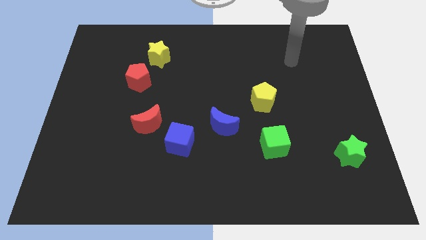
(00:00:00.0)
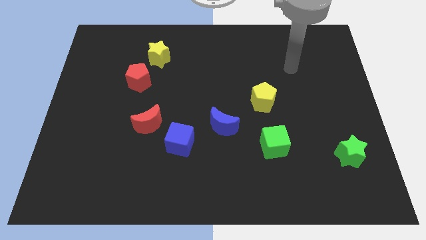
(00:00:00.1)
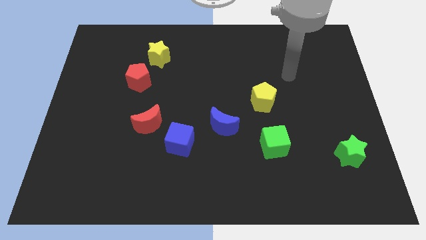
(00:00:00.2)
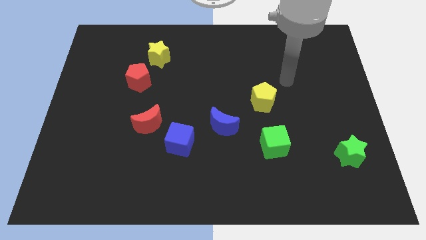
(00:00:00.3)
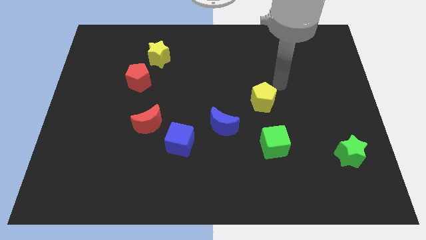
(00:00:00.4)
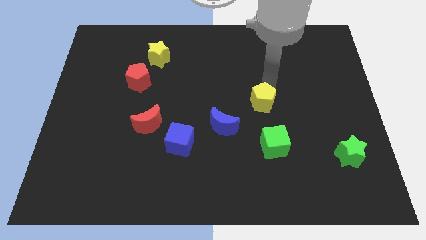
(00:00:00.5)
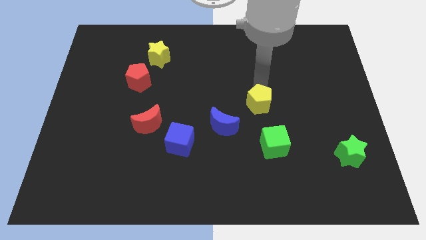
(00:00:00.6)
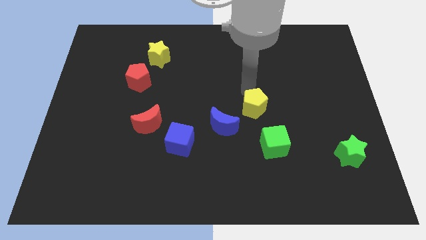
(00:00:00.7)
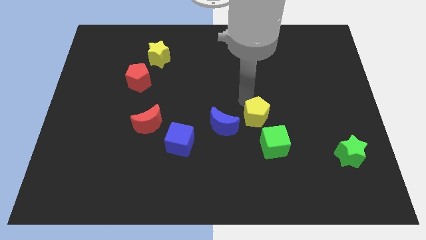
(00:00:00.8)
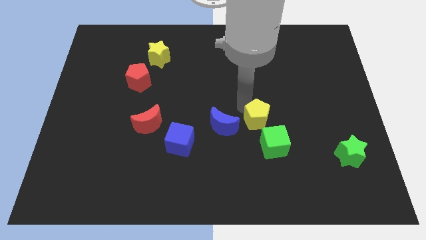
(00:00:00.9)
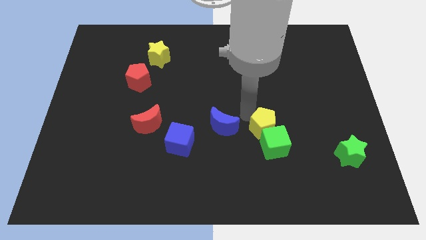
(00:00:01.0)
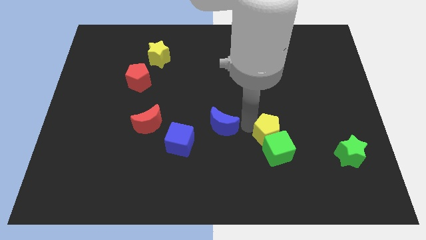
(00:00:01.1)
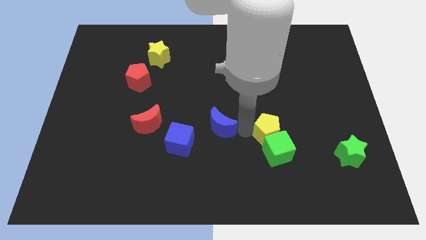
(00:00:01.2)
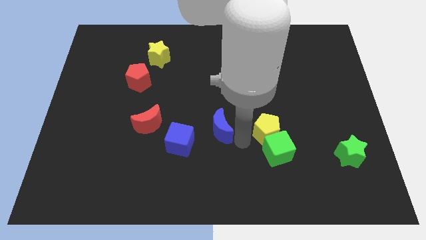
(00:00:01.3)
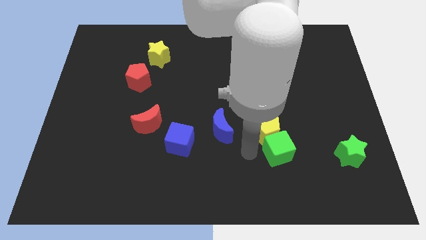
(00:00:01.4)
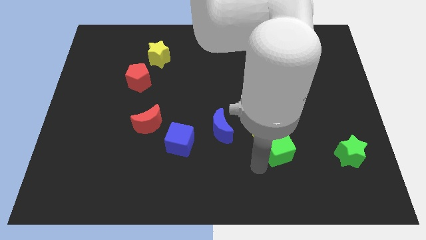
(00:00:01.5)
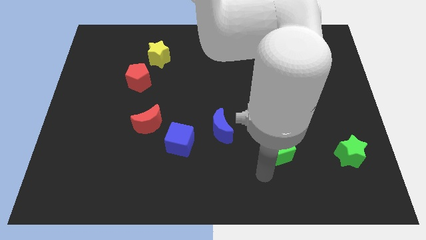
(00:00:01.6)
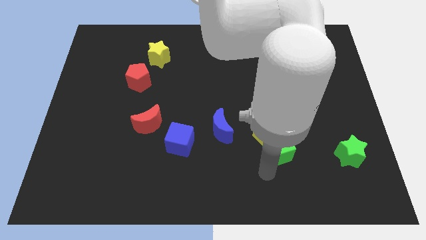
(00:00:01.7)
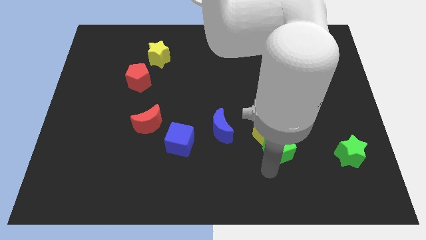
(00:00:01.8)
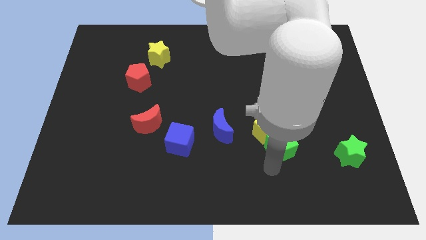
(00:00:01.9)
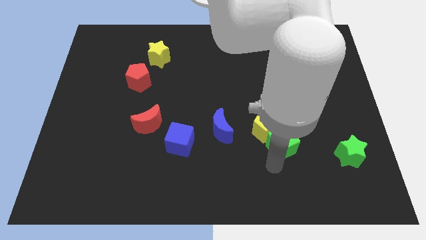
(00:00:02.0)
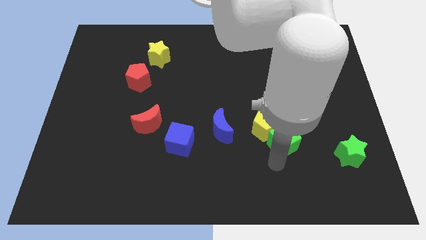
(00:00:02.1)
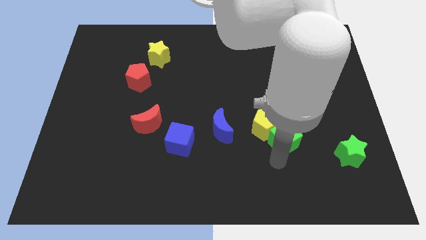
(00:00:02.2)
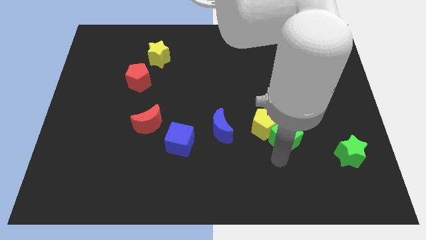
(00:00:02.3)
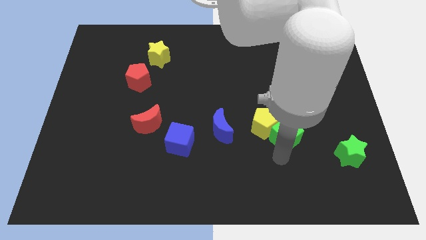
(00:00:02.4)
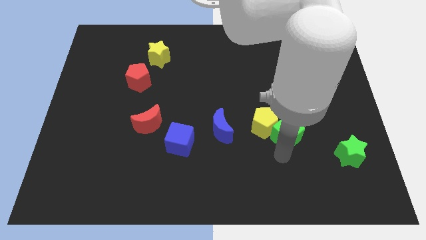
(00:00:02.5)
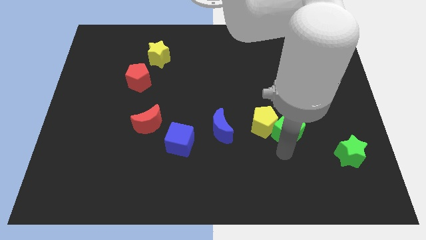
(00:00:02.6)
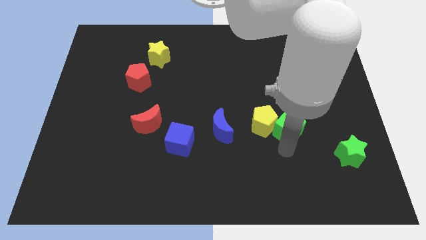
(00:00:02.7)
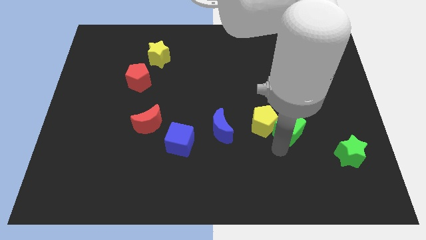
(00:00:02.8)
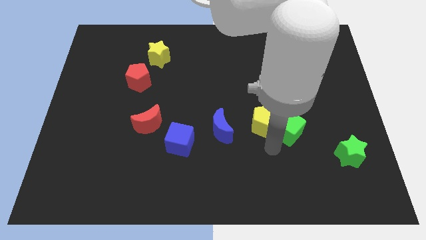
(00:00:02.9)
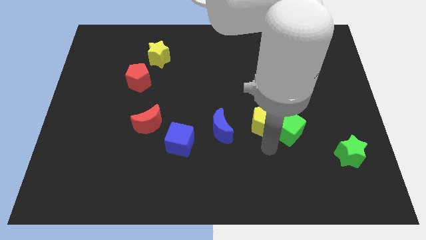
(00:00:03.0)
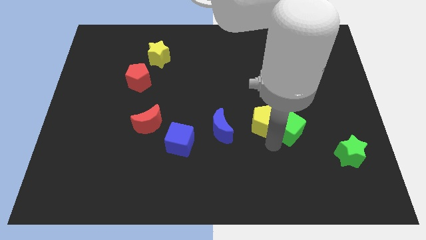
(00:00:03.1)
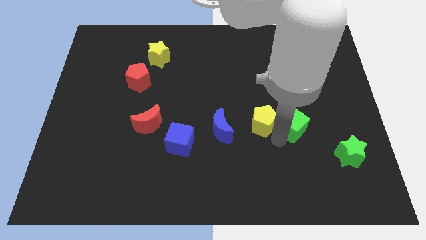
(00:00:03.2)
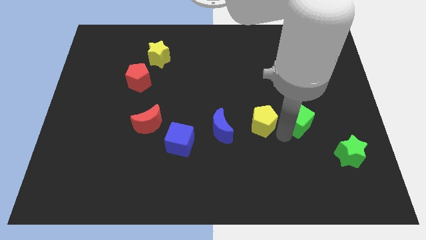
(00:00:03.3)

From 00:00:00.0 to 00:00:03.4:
slide the green cube up and to the right diagonally a little

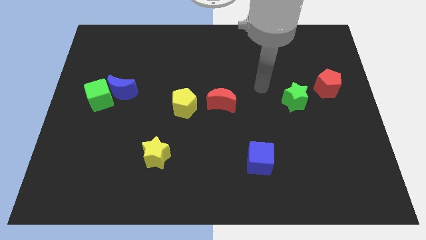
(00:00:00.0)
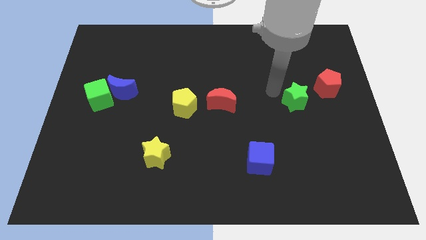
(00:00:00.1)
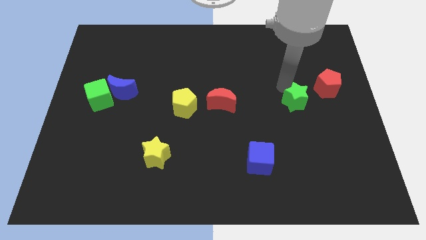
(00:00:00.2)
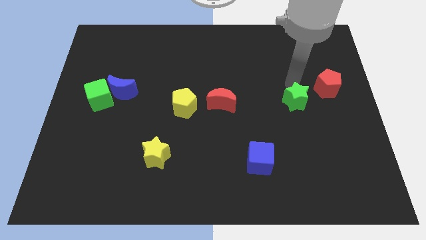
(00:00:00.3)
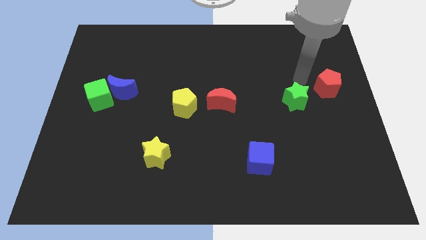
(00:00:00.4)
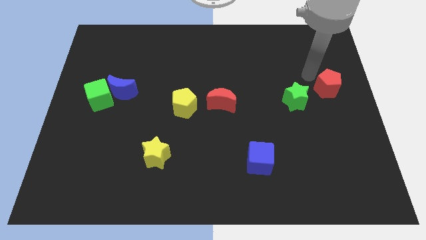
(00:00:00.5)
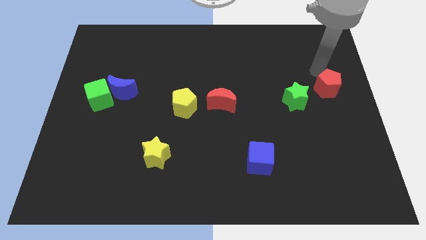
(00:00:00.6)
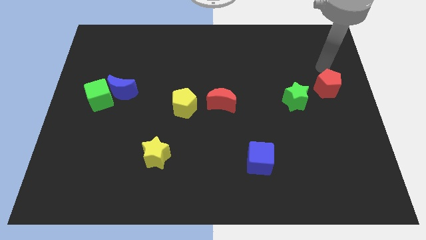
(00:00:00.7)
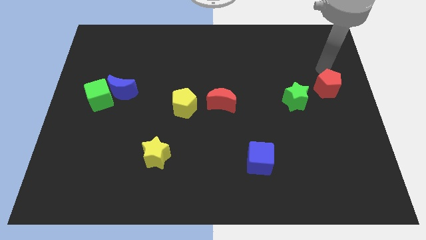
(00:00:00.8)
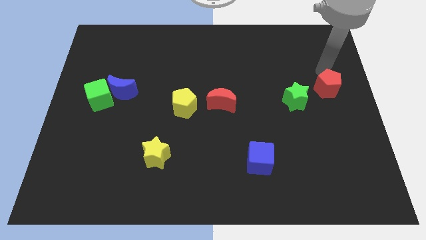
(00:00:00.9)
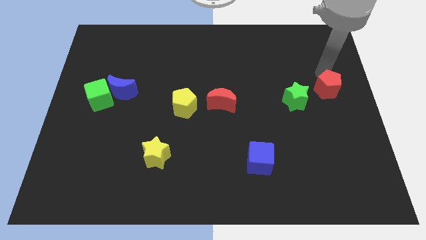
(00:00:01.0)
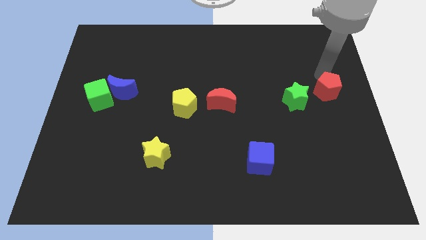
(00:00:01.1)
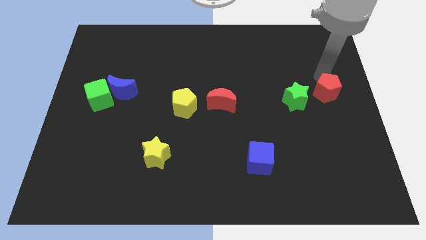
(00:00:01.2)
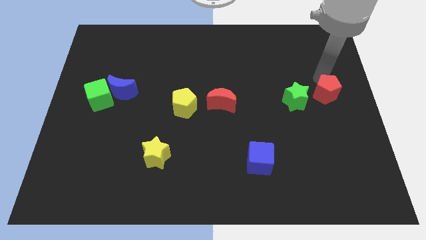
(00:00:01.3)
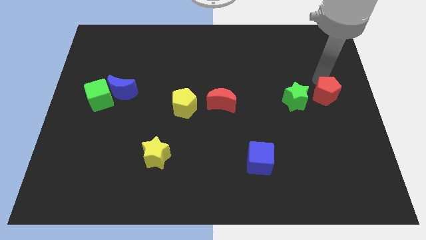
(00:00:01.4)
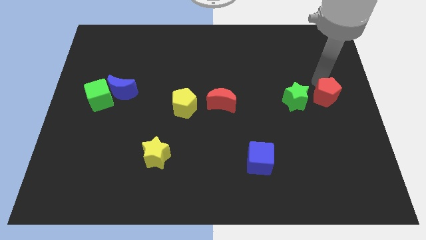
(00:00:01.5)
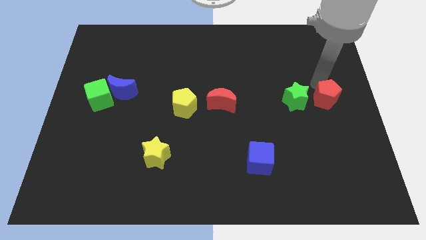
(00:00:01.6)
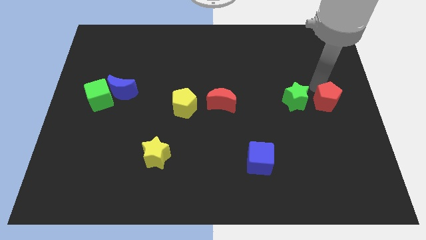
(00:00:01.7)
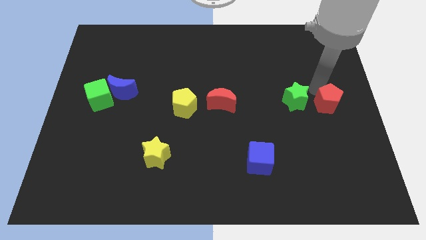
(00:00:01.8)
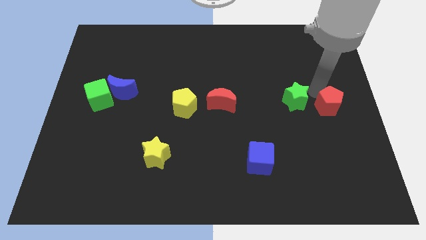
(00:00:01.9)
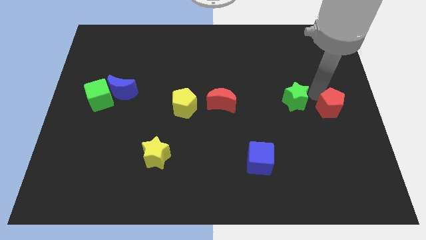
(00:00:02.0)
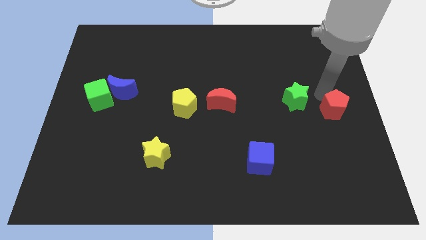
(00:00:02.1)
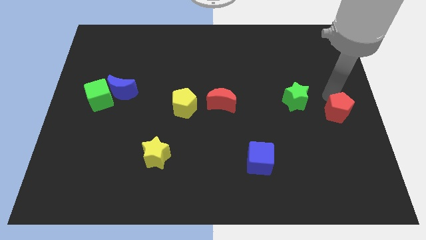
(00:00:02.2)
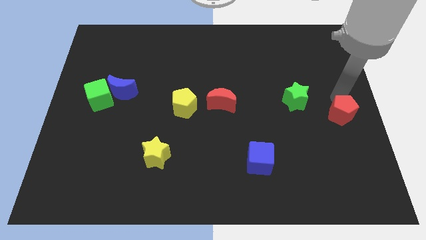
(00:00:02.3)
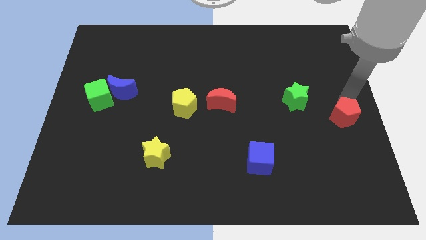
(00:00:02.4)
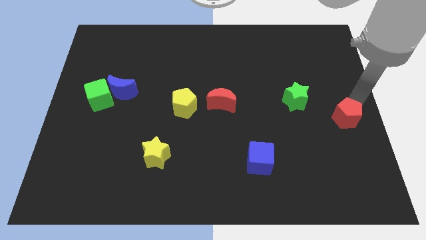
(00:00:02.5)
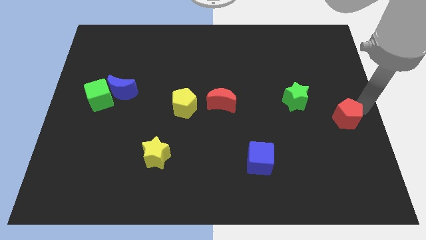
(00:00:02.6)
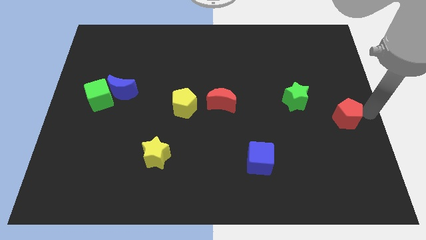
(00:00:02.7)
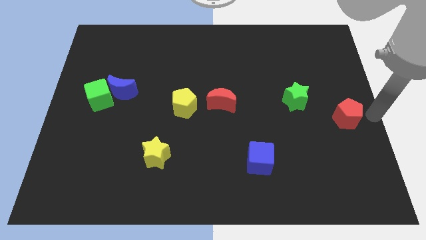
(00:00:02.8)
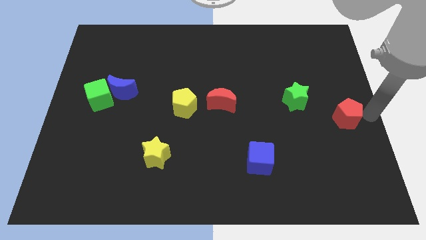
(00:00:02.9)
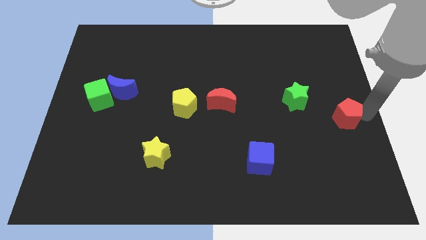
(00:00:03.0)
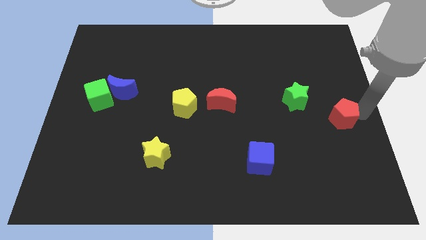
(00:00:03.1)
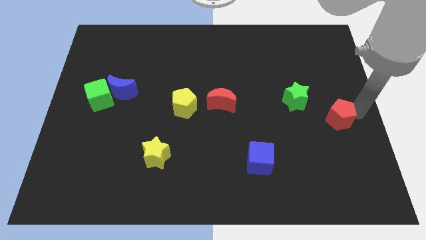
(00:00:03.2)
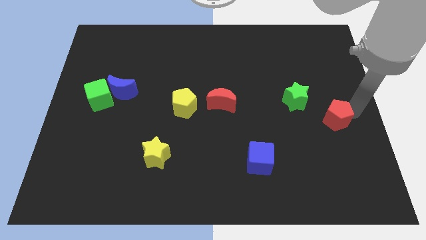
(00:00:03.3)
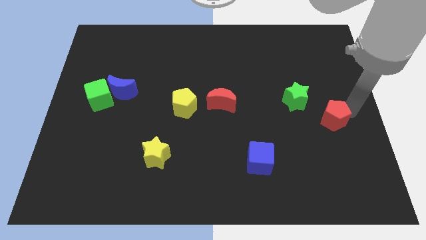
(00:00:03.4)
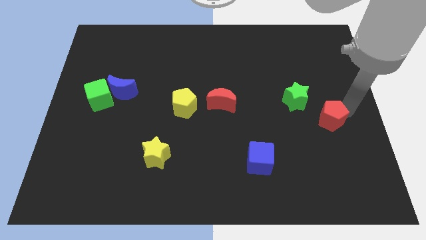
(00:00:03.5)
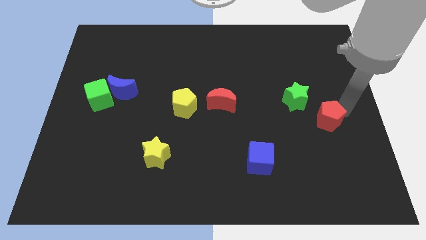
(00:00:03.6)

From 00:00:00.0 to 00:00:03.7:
slightly push the red pentagon down and then left

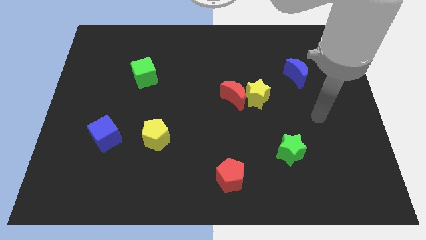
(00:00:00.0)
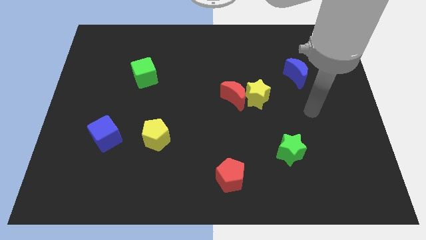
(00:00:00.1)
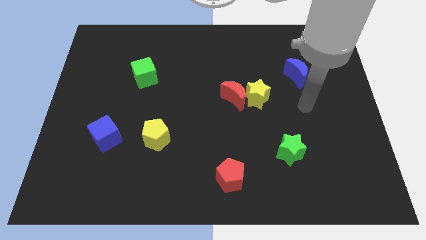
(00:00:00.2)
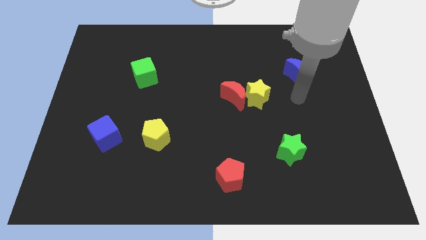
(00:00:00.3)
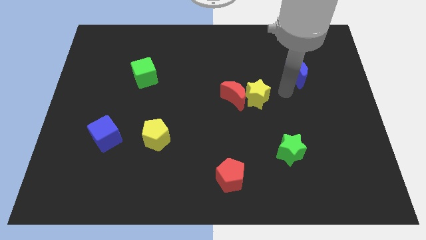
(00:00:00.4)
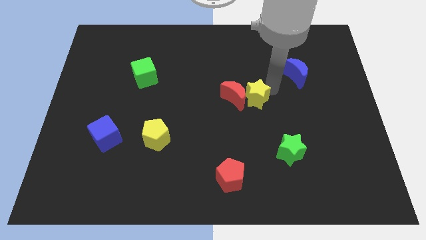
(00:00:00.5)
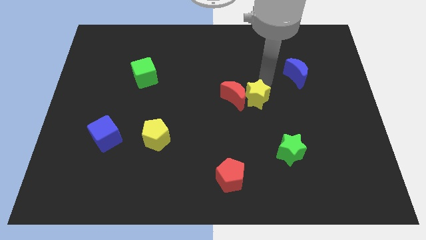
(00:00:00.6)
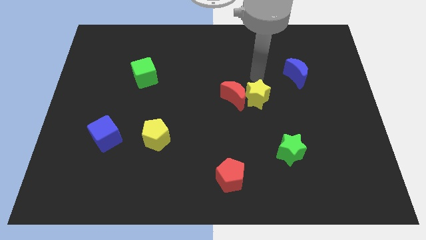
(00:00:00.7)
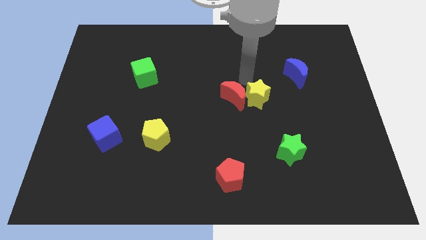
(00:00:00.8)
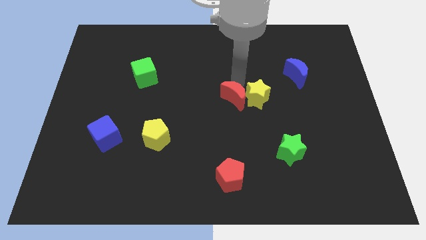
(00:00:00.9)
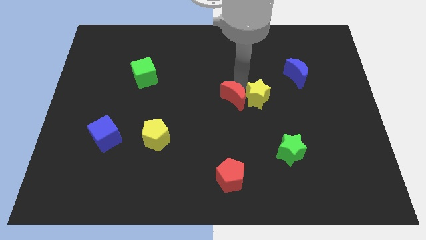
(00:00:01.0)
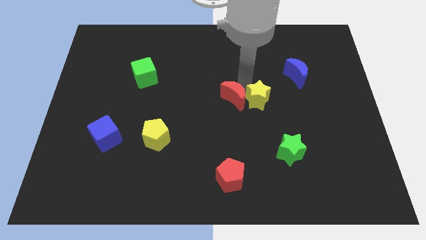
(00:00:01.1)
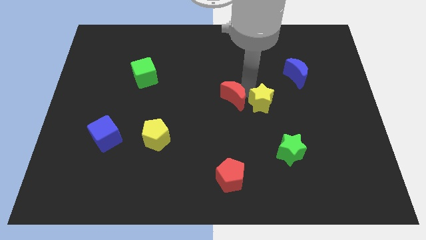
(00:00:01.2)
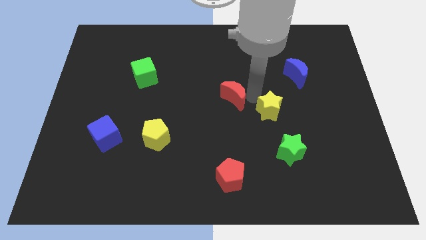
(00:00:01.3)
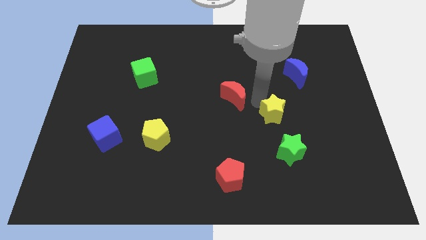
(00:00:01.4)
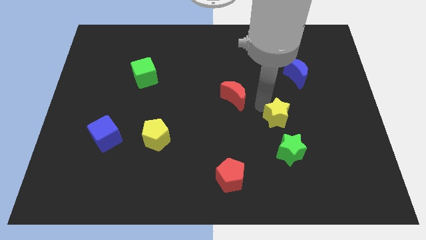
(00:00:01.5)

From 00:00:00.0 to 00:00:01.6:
push the yellow star somewhat down and right diagonally
